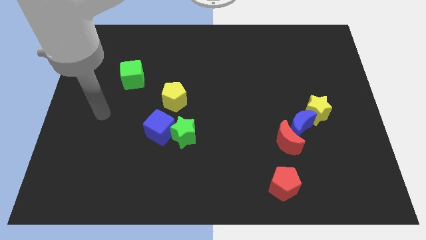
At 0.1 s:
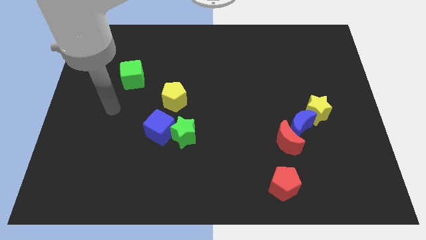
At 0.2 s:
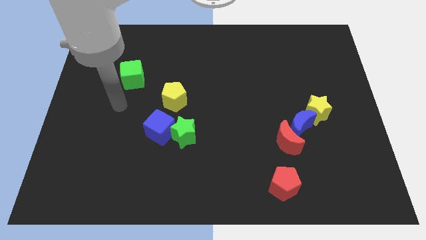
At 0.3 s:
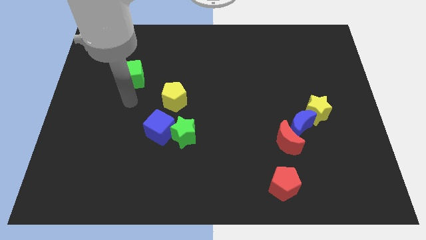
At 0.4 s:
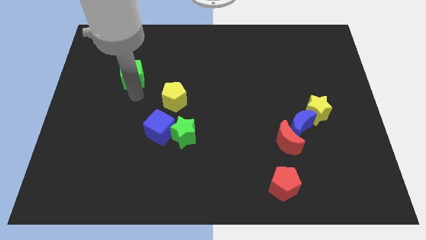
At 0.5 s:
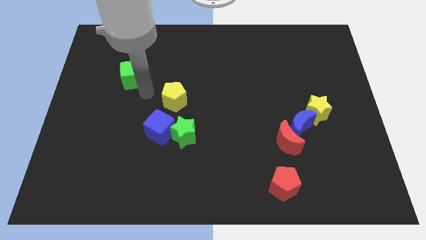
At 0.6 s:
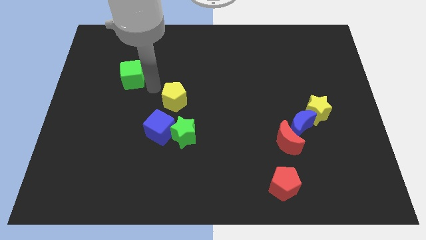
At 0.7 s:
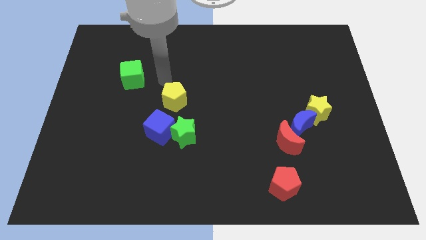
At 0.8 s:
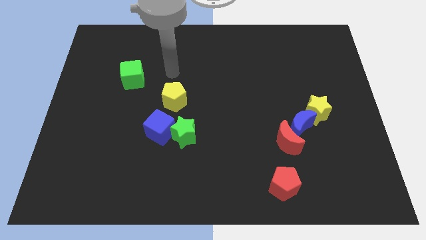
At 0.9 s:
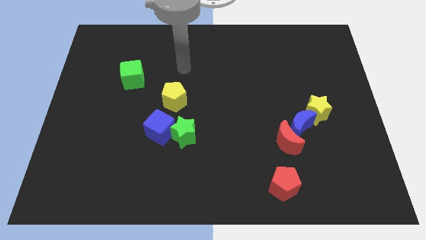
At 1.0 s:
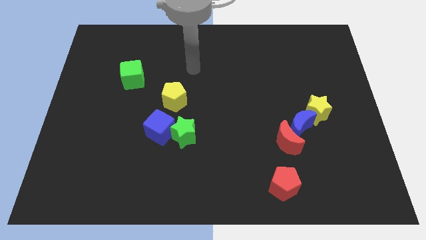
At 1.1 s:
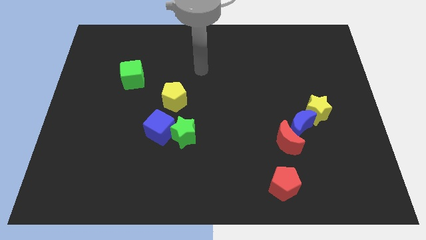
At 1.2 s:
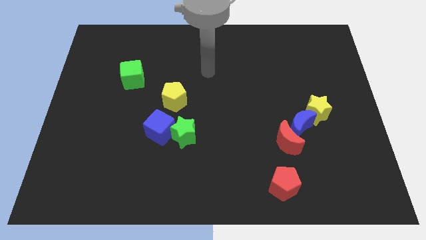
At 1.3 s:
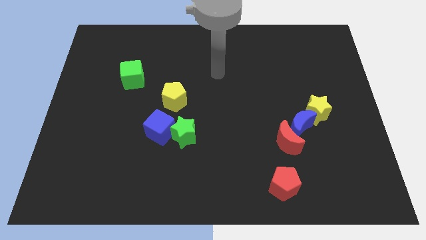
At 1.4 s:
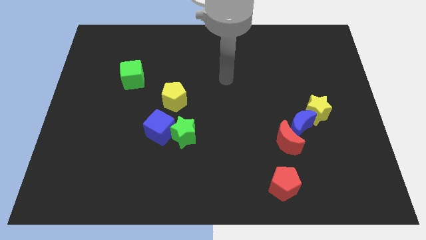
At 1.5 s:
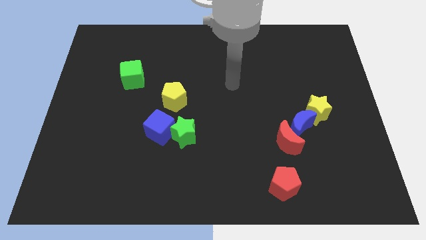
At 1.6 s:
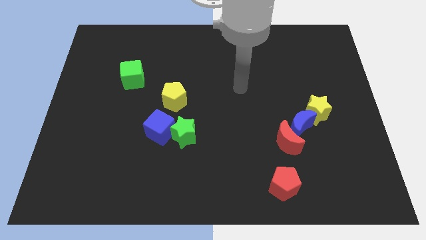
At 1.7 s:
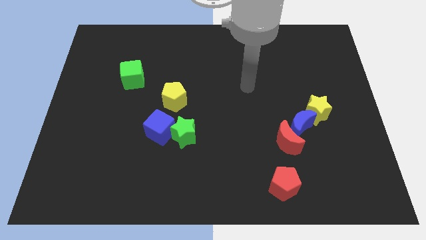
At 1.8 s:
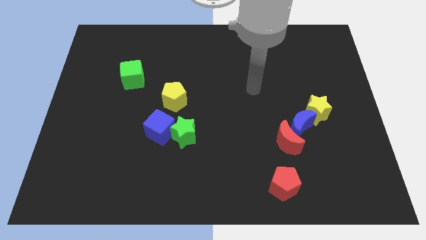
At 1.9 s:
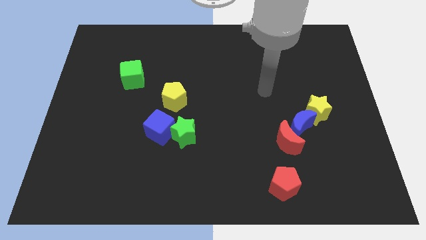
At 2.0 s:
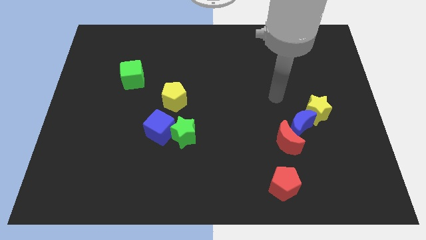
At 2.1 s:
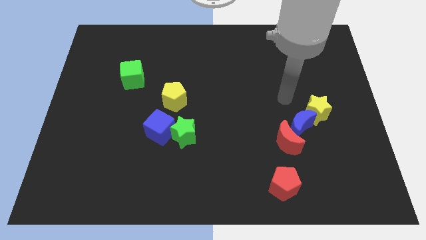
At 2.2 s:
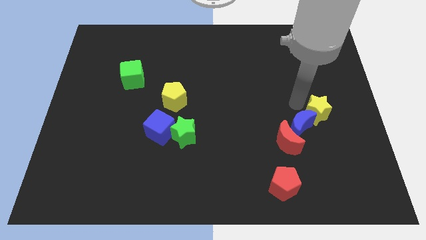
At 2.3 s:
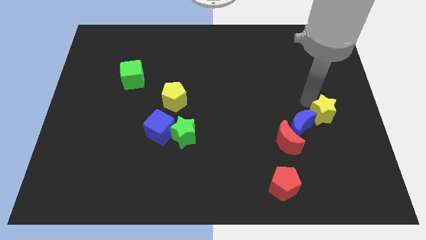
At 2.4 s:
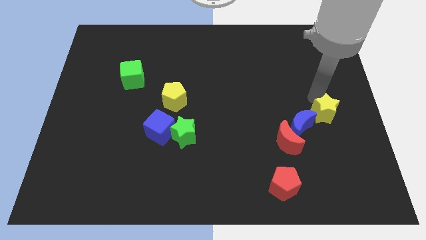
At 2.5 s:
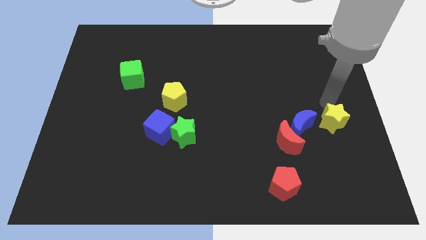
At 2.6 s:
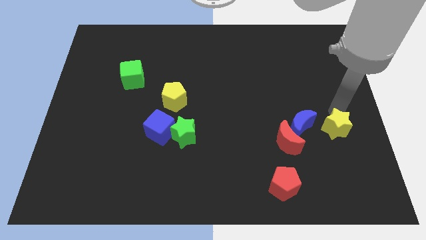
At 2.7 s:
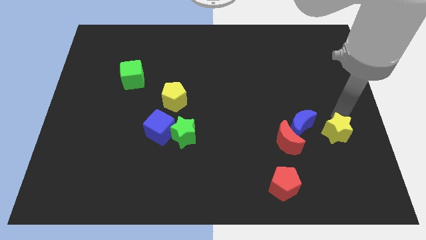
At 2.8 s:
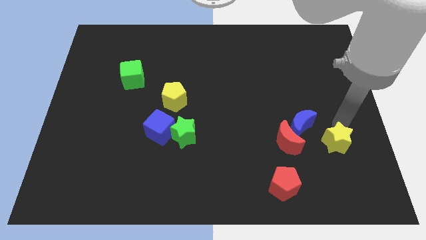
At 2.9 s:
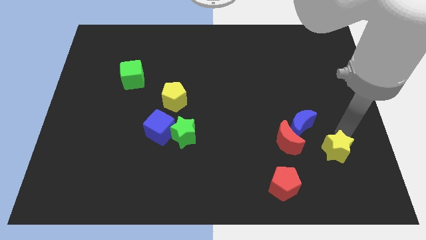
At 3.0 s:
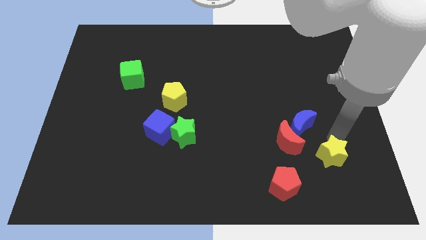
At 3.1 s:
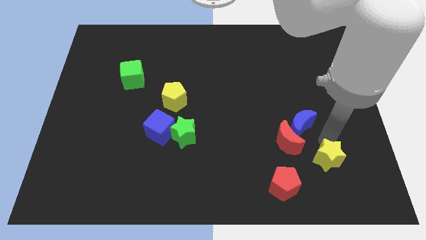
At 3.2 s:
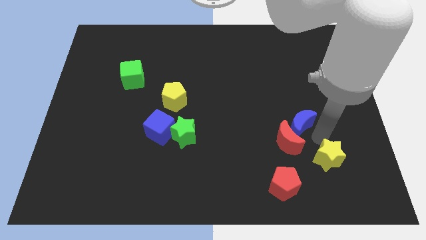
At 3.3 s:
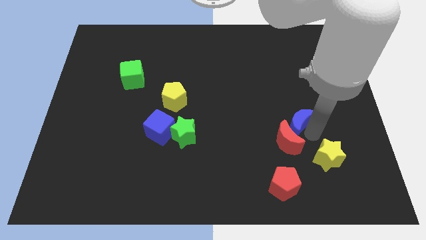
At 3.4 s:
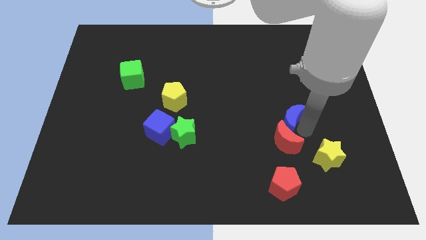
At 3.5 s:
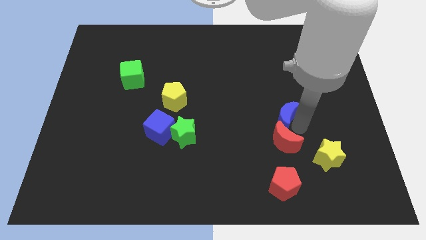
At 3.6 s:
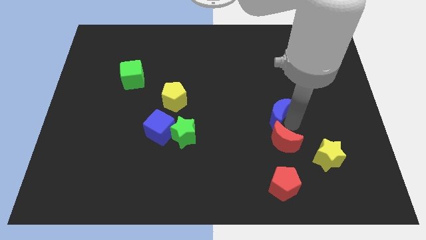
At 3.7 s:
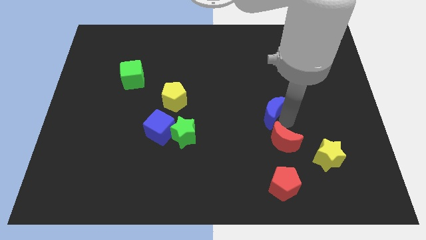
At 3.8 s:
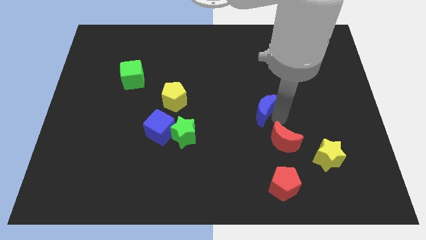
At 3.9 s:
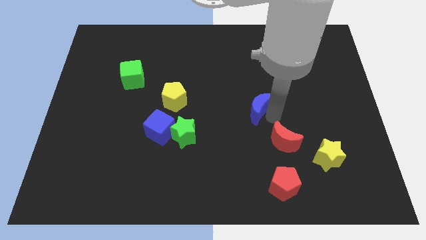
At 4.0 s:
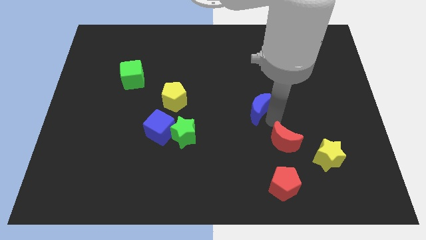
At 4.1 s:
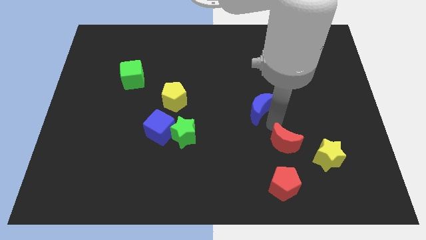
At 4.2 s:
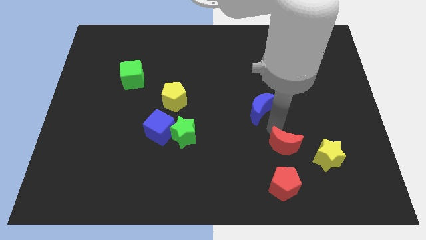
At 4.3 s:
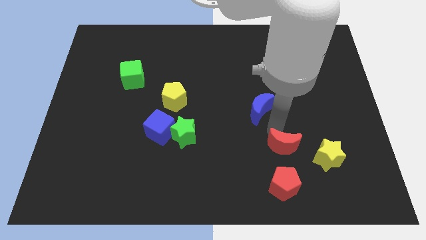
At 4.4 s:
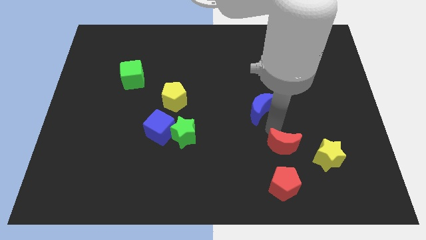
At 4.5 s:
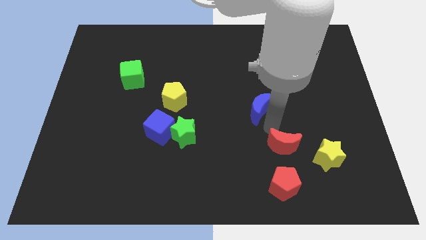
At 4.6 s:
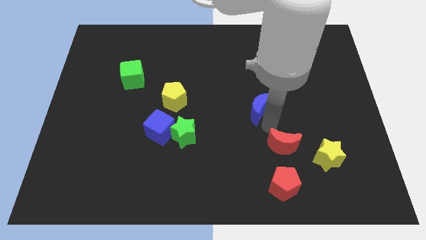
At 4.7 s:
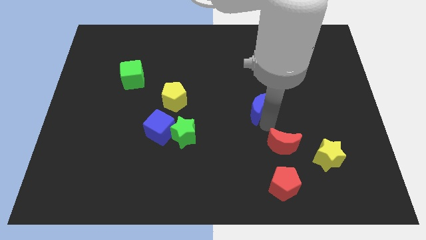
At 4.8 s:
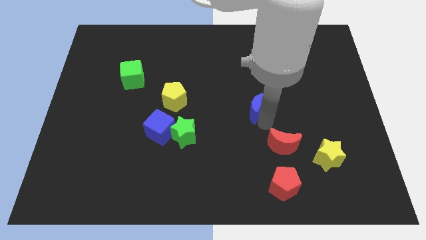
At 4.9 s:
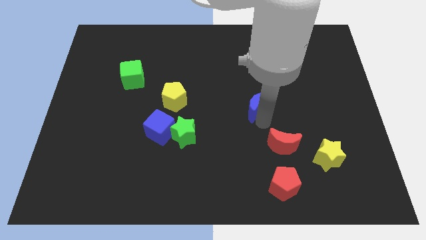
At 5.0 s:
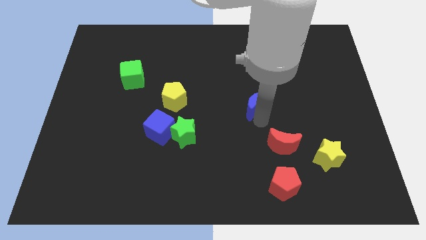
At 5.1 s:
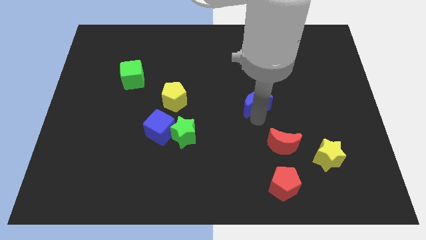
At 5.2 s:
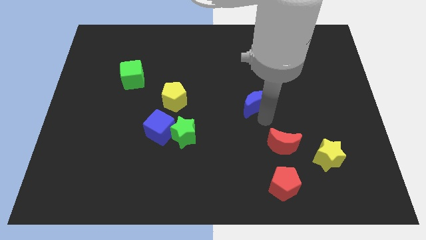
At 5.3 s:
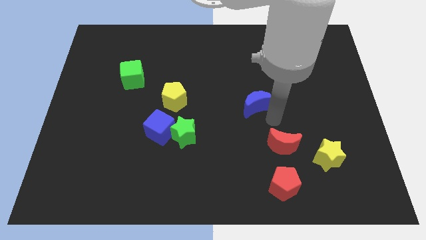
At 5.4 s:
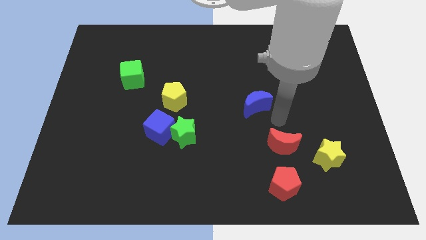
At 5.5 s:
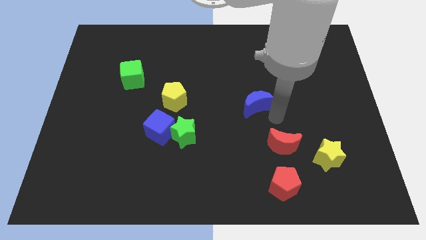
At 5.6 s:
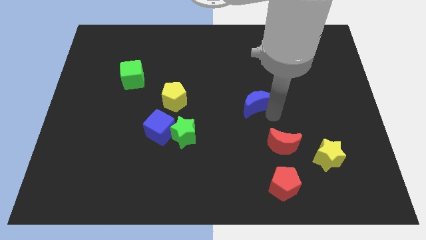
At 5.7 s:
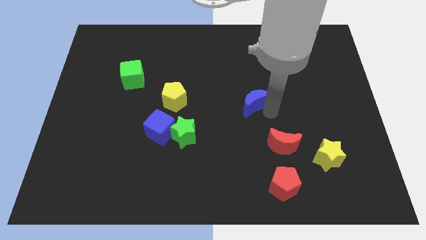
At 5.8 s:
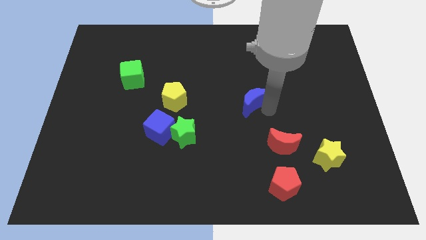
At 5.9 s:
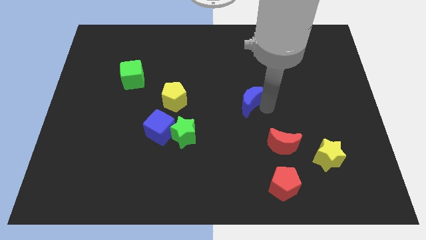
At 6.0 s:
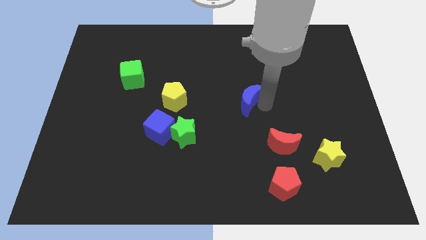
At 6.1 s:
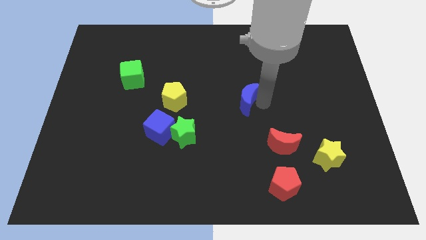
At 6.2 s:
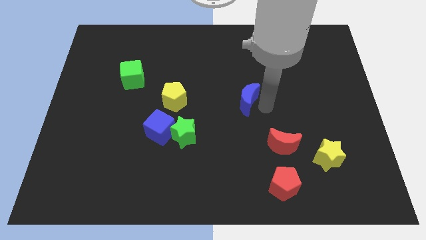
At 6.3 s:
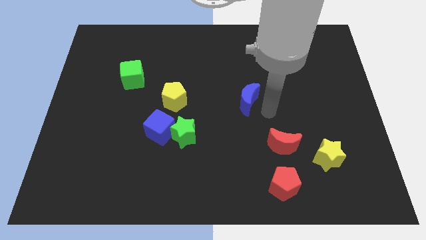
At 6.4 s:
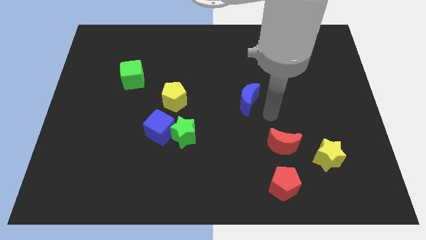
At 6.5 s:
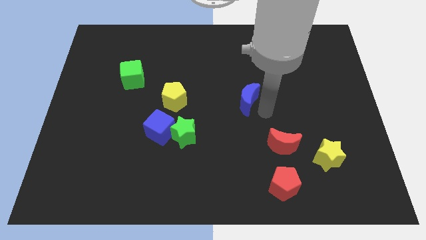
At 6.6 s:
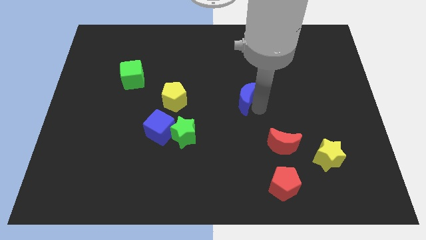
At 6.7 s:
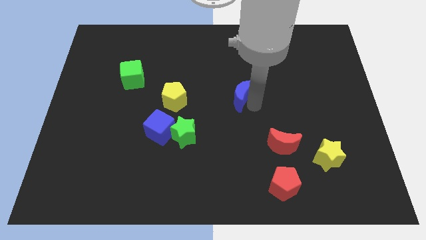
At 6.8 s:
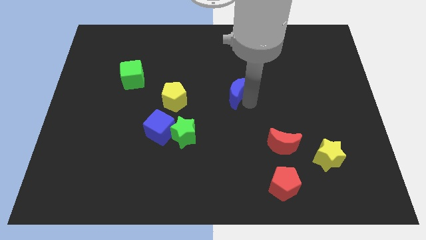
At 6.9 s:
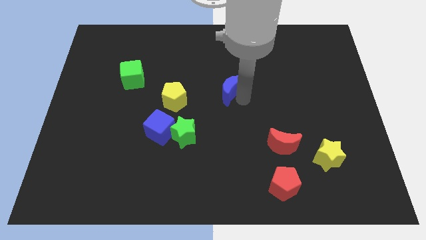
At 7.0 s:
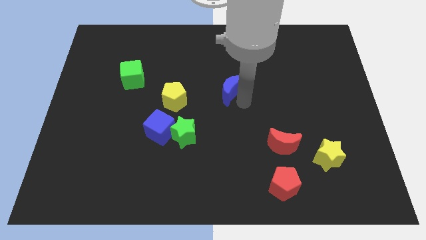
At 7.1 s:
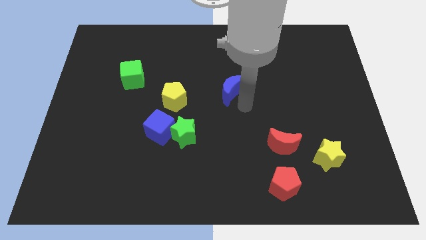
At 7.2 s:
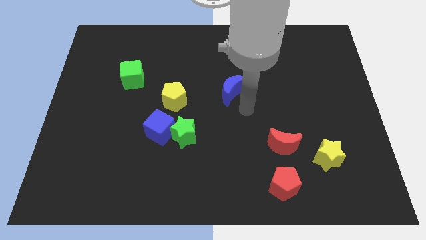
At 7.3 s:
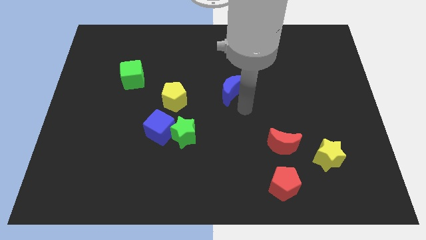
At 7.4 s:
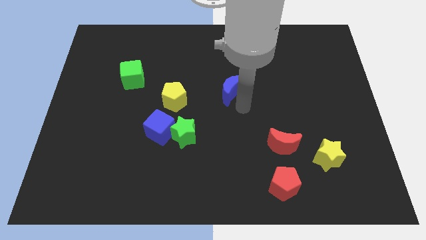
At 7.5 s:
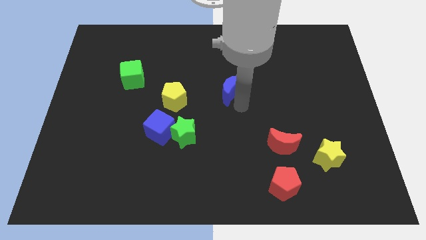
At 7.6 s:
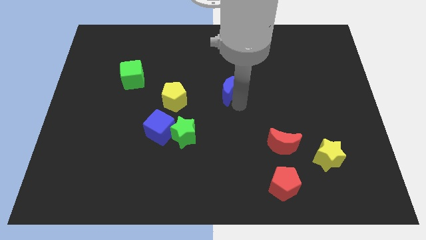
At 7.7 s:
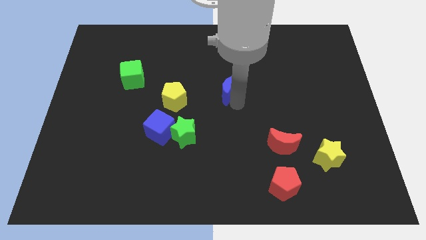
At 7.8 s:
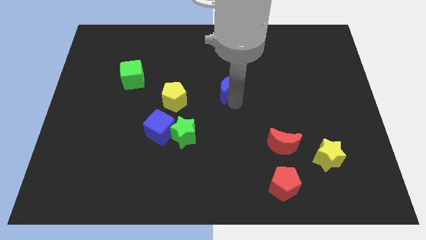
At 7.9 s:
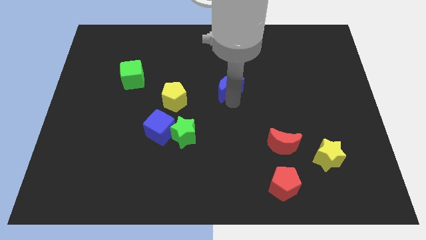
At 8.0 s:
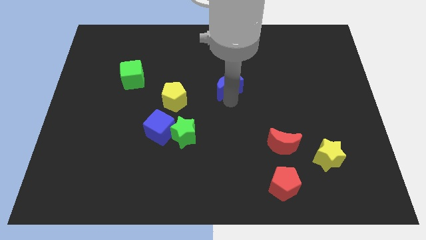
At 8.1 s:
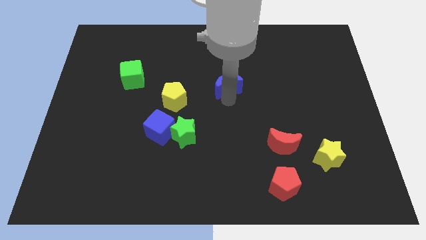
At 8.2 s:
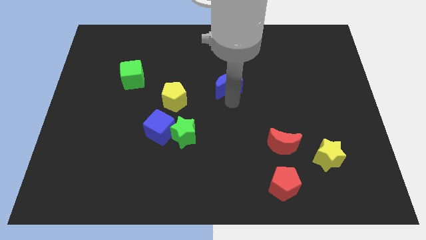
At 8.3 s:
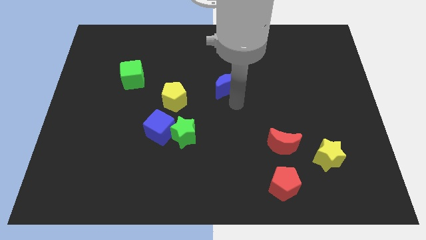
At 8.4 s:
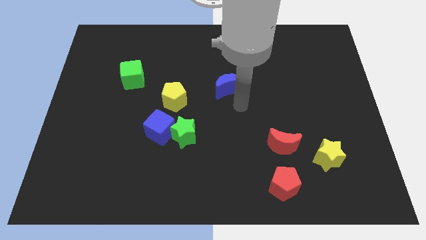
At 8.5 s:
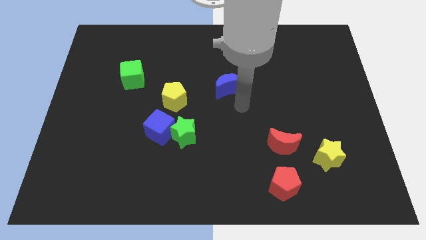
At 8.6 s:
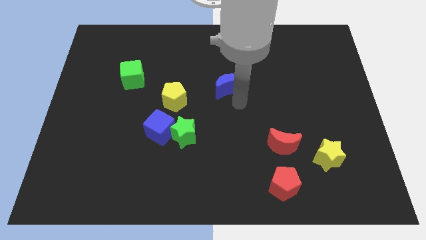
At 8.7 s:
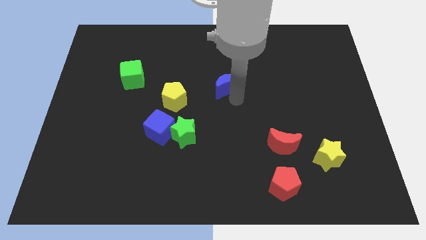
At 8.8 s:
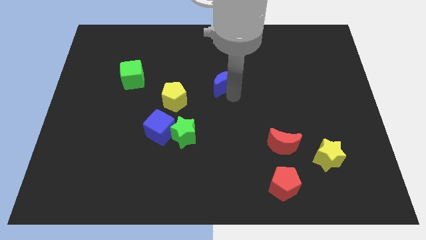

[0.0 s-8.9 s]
push the blue moon upwards and left diagonally
